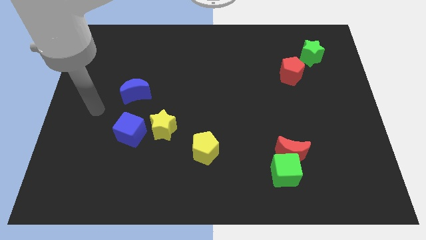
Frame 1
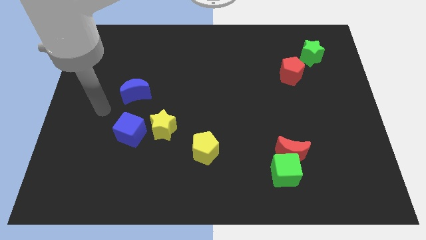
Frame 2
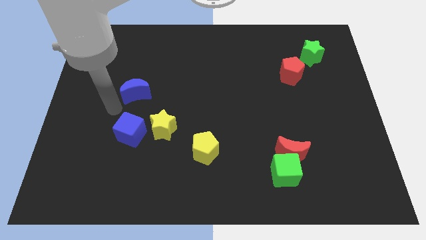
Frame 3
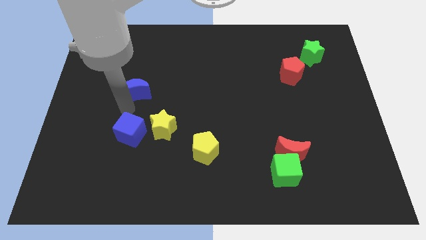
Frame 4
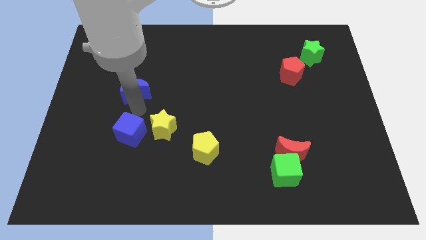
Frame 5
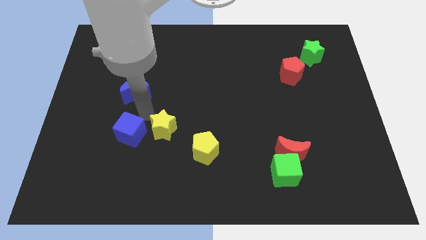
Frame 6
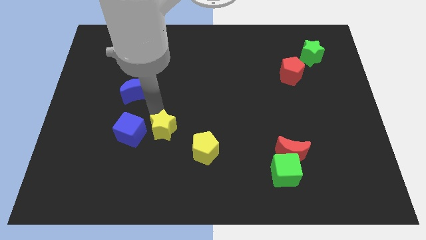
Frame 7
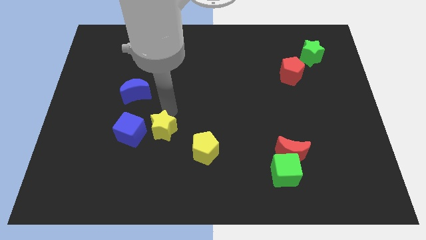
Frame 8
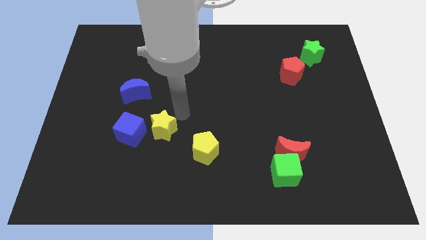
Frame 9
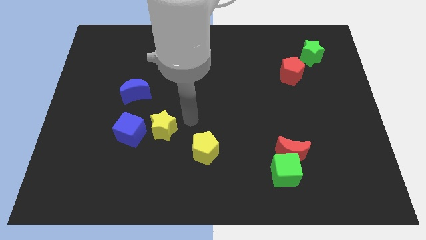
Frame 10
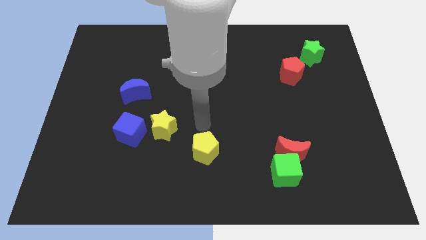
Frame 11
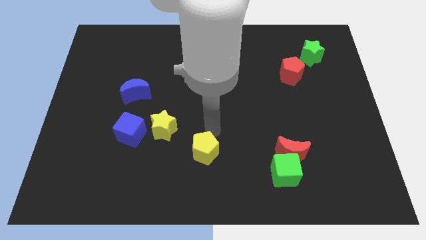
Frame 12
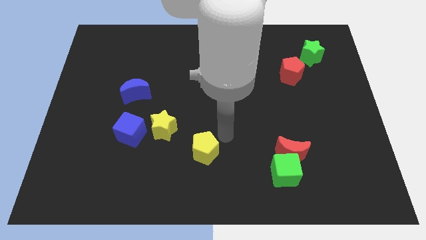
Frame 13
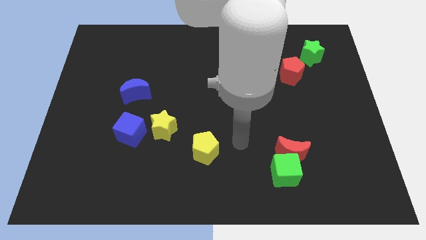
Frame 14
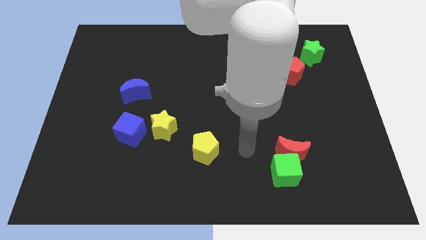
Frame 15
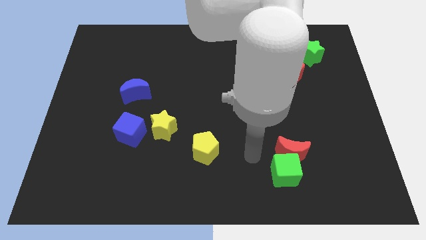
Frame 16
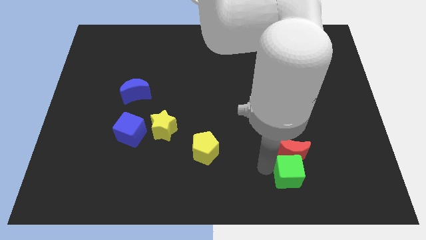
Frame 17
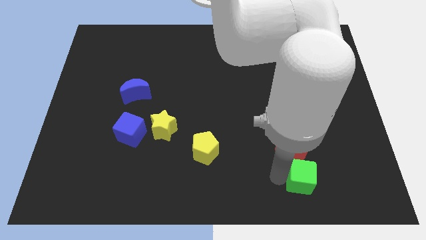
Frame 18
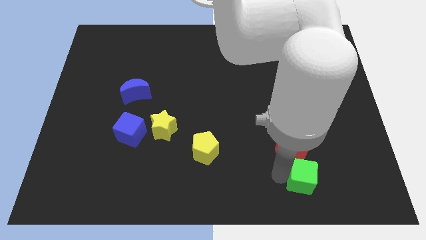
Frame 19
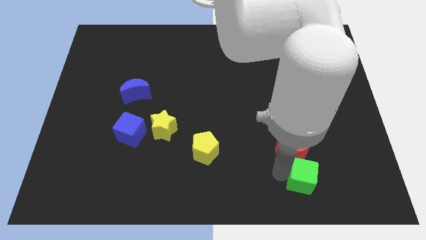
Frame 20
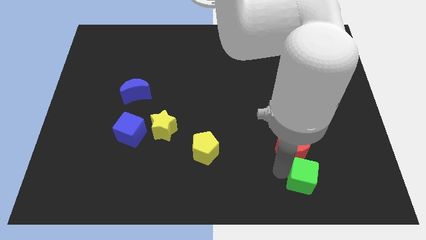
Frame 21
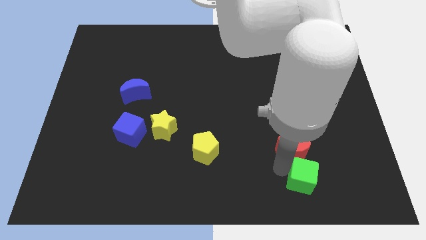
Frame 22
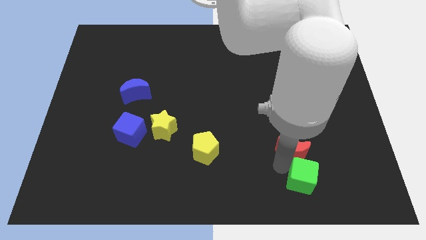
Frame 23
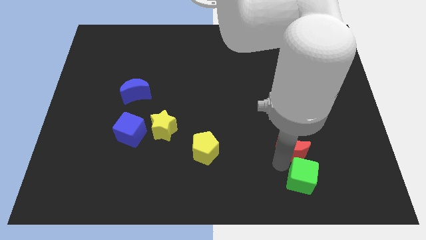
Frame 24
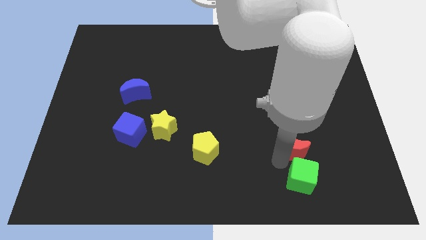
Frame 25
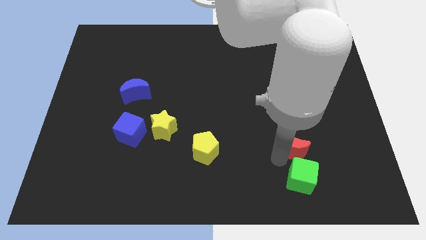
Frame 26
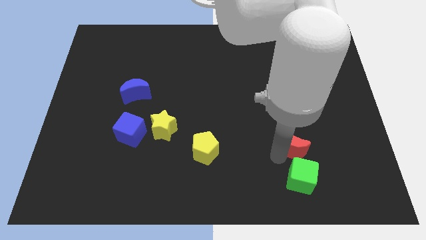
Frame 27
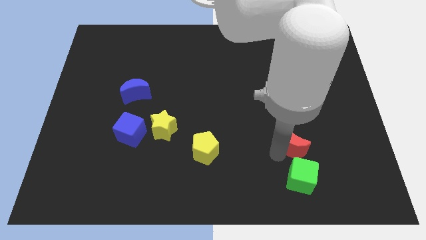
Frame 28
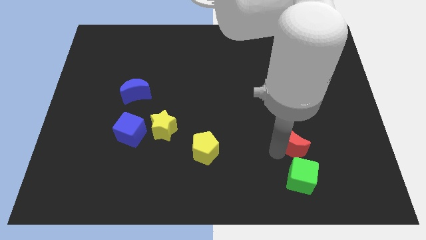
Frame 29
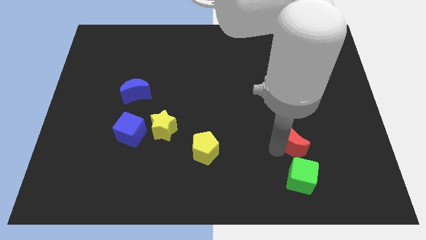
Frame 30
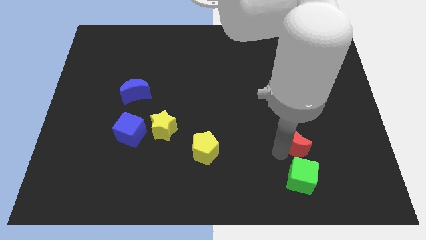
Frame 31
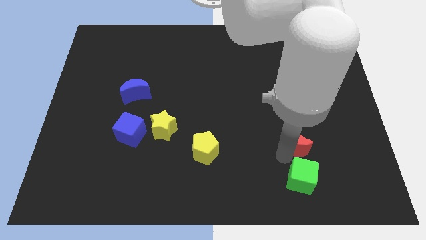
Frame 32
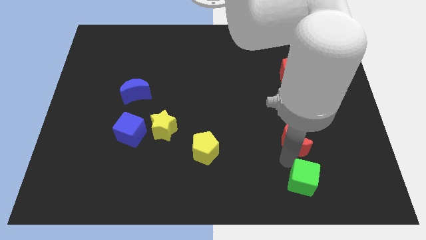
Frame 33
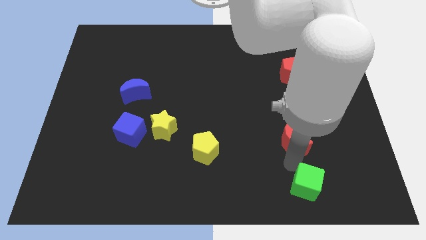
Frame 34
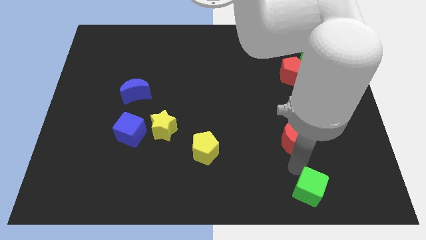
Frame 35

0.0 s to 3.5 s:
move the red moon away from the green cube

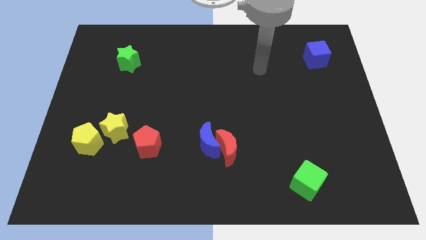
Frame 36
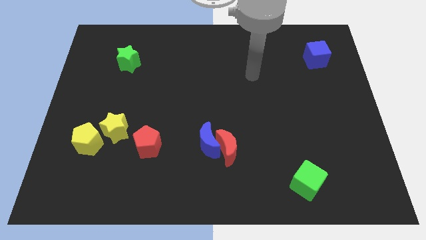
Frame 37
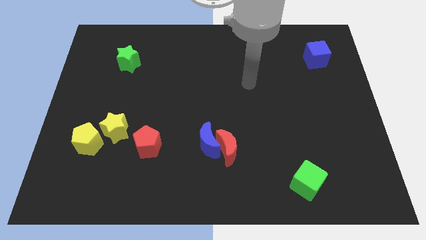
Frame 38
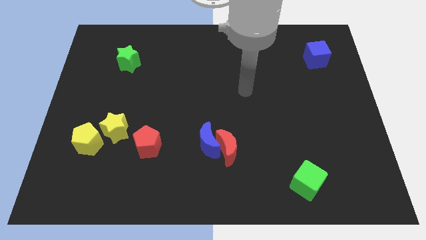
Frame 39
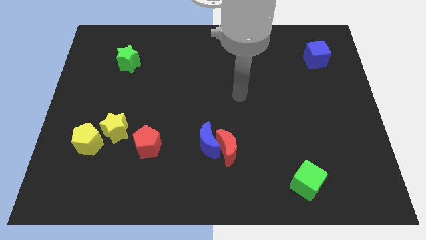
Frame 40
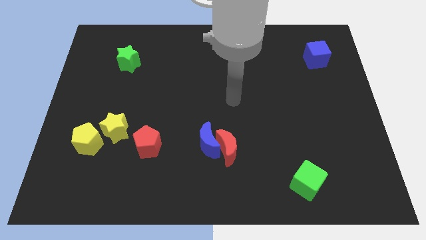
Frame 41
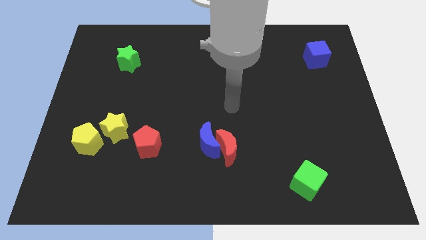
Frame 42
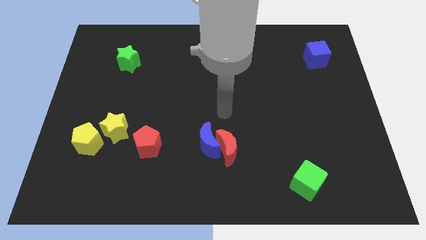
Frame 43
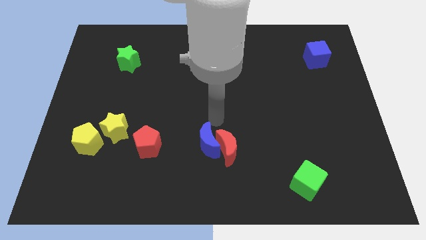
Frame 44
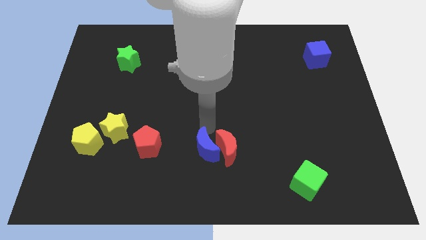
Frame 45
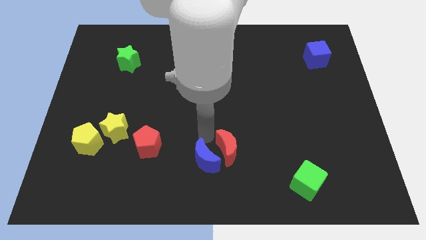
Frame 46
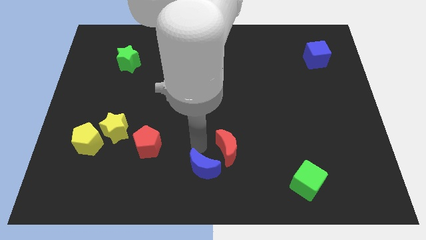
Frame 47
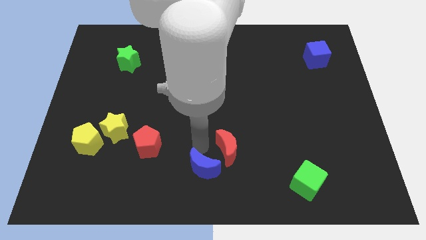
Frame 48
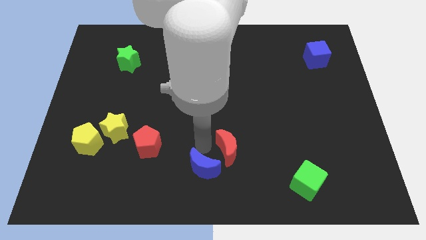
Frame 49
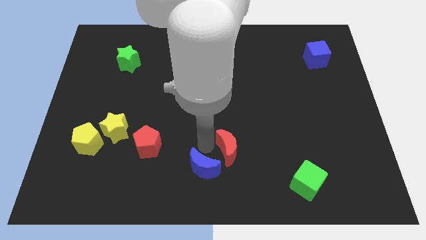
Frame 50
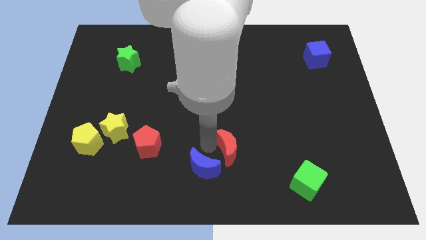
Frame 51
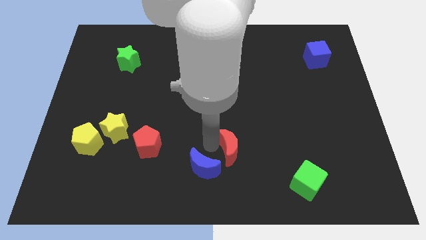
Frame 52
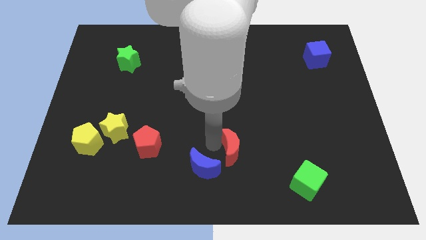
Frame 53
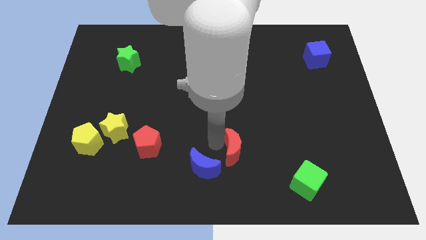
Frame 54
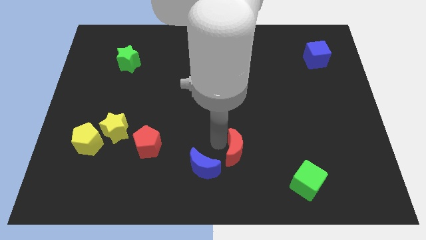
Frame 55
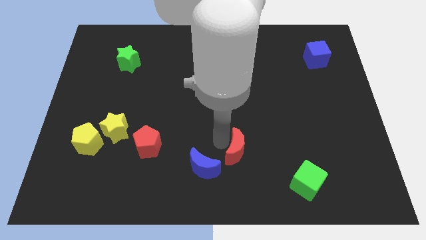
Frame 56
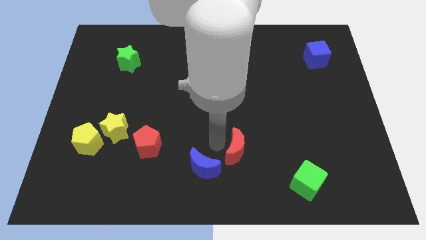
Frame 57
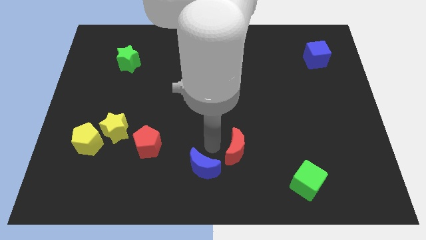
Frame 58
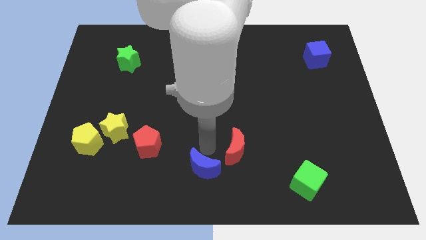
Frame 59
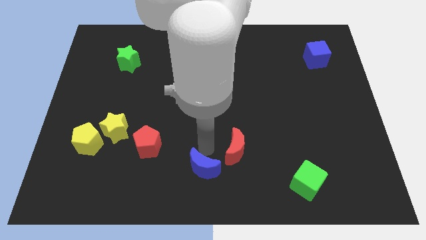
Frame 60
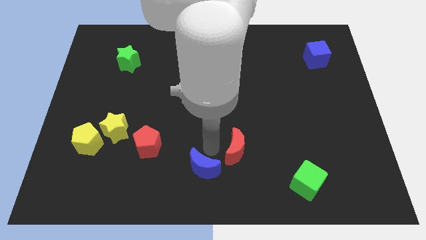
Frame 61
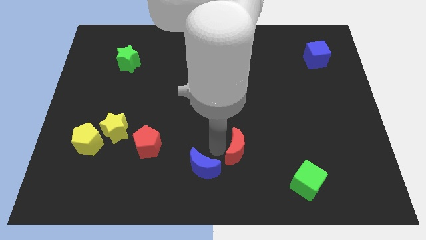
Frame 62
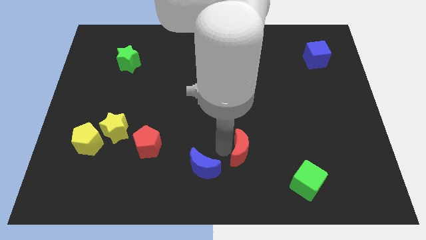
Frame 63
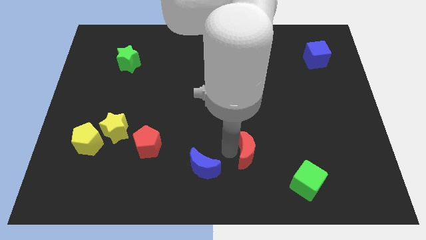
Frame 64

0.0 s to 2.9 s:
pull the red moon apart from the blue moon

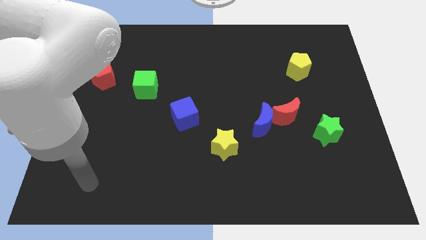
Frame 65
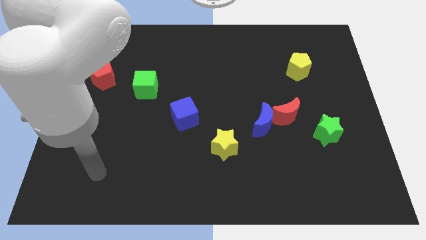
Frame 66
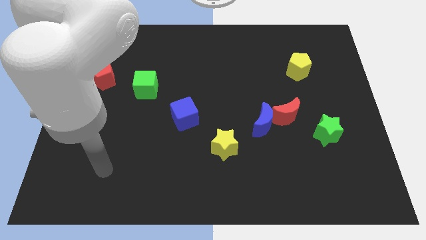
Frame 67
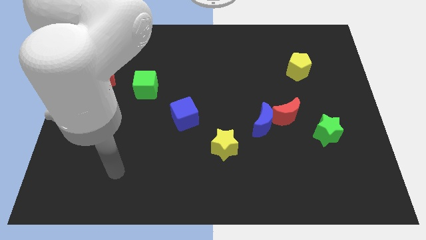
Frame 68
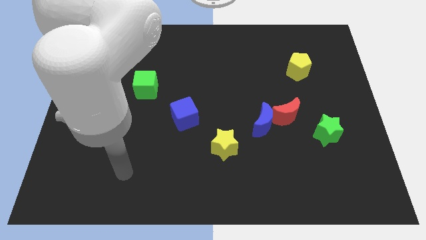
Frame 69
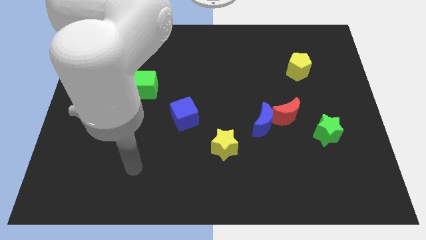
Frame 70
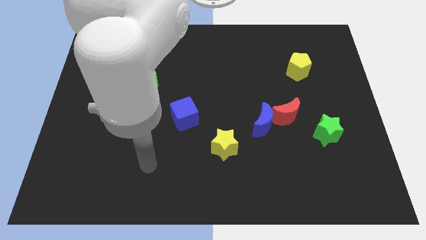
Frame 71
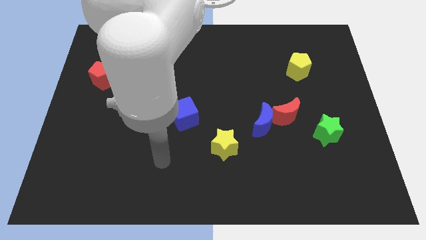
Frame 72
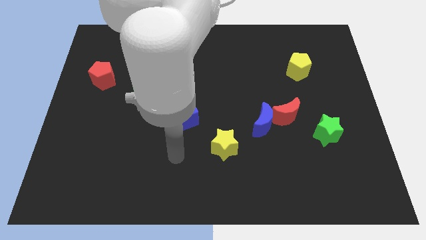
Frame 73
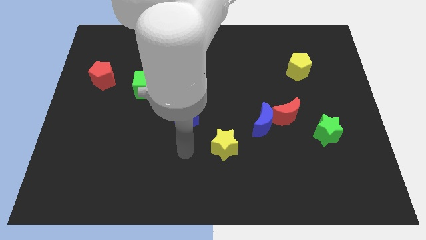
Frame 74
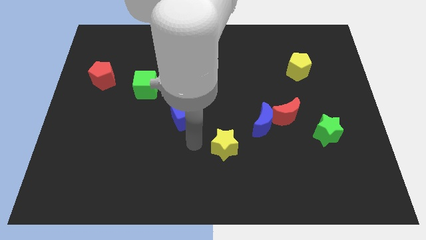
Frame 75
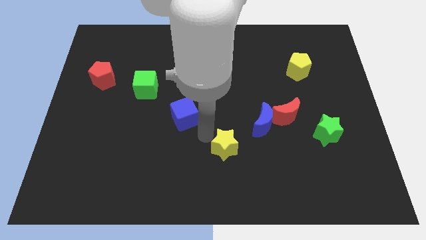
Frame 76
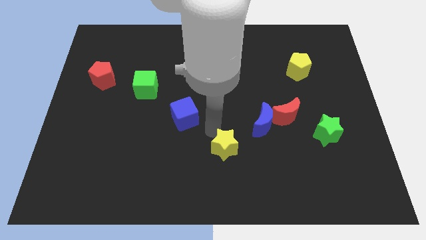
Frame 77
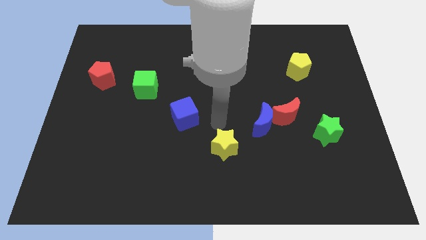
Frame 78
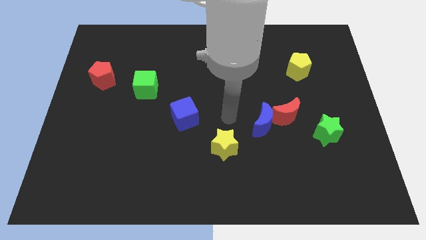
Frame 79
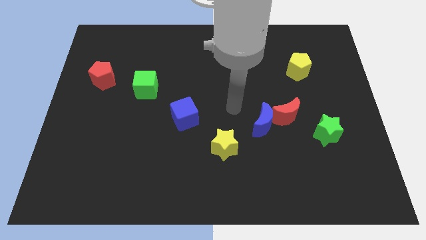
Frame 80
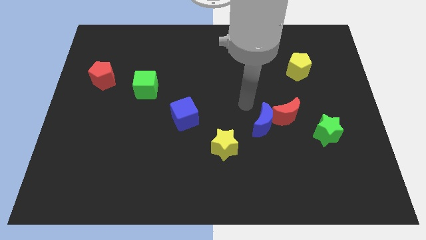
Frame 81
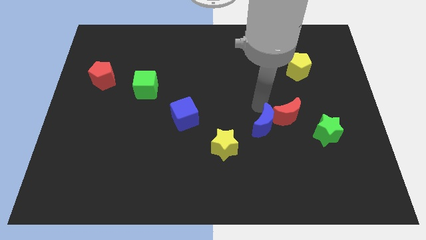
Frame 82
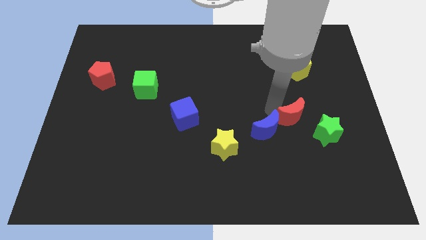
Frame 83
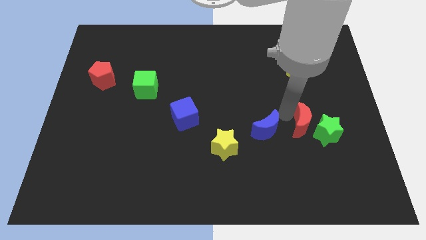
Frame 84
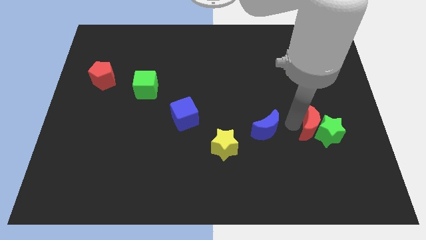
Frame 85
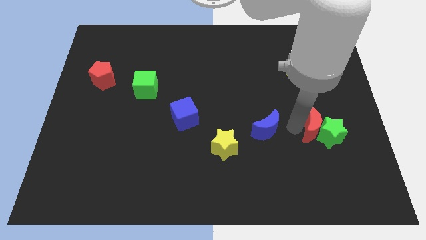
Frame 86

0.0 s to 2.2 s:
move the blue moon away from the red moon

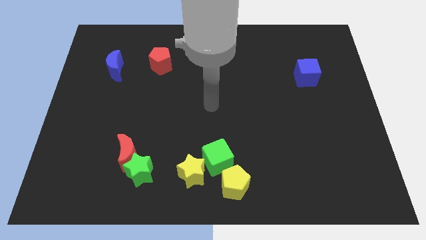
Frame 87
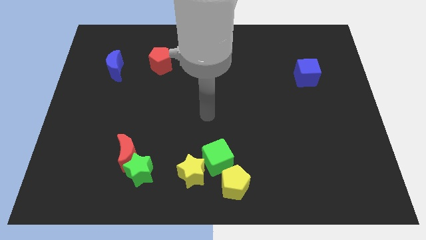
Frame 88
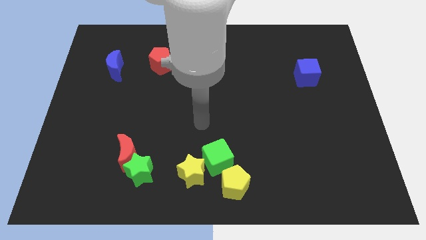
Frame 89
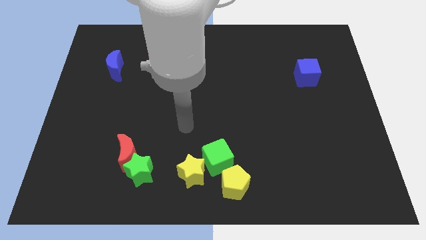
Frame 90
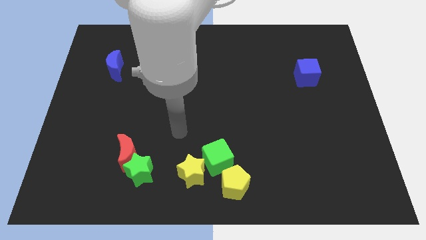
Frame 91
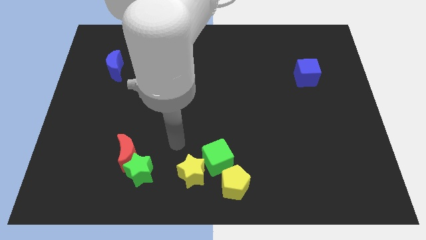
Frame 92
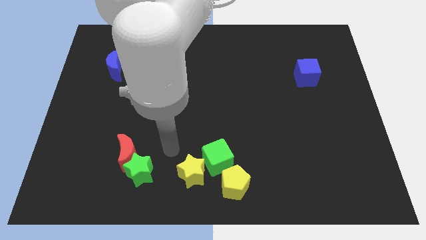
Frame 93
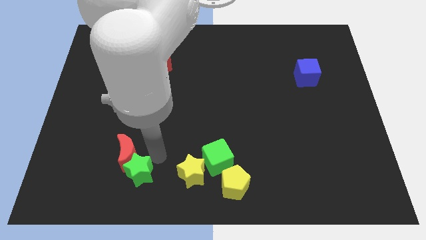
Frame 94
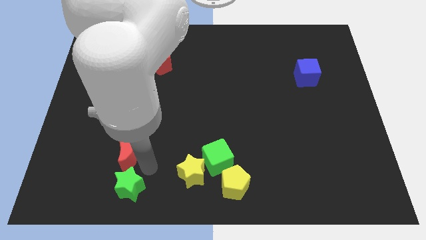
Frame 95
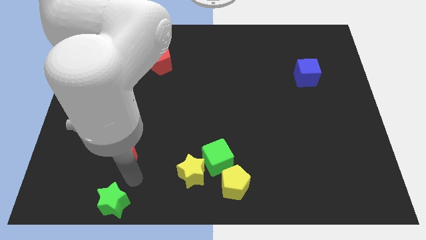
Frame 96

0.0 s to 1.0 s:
separate the red moon from the green star
